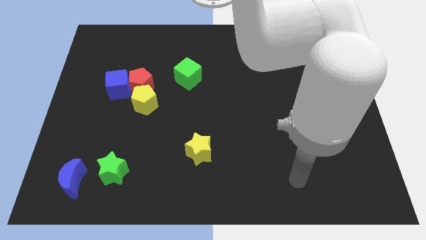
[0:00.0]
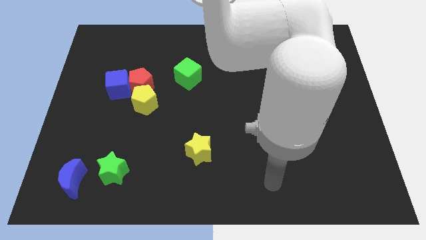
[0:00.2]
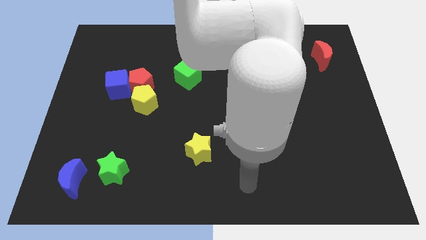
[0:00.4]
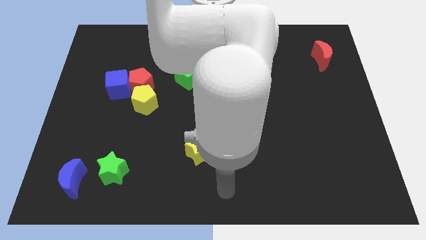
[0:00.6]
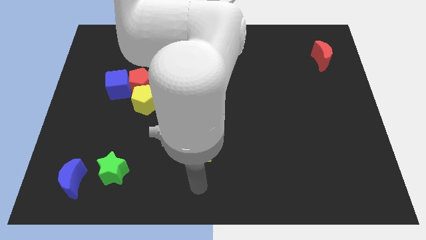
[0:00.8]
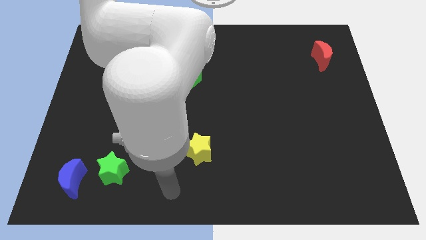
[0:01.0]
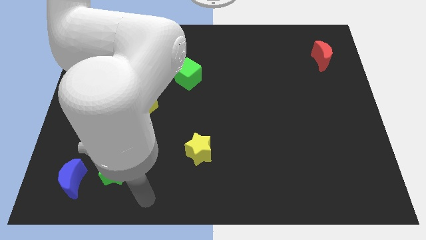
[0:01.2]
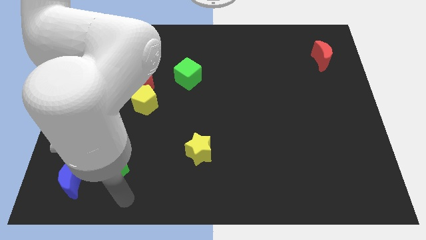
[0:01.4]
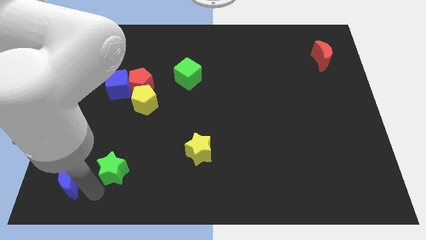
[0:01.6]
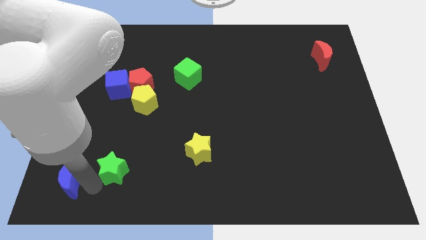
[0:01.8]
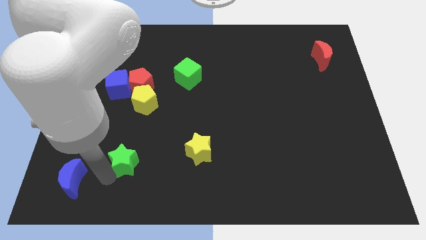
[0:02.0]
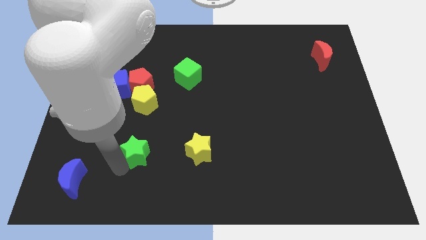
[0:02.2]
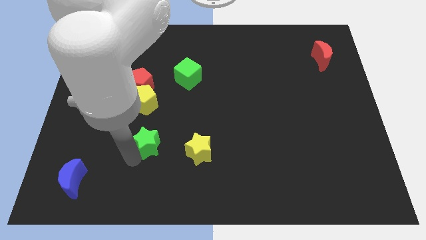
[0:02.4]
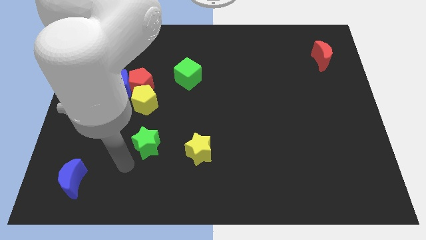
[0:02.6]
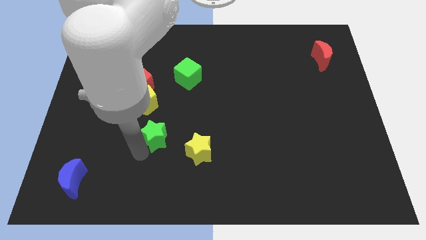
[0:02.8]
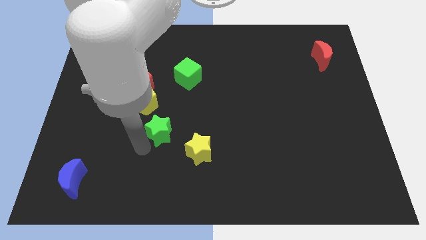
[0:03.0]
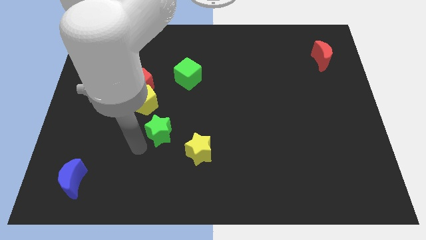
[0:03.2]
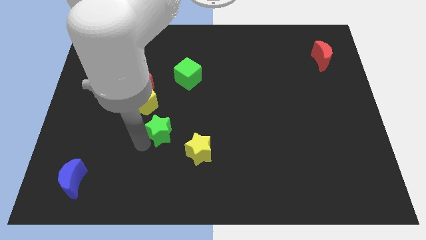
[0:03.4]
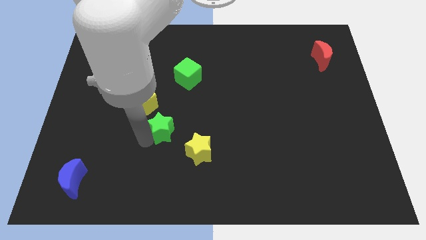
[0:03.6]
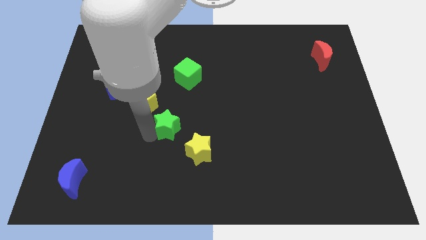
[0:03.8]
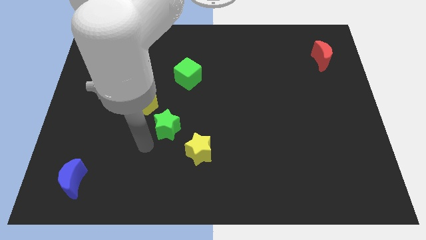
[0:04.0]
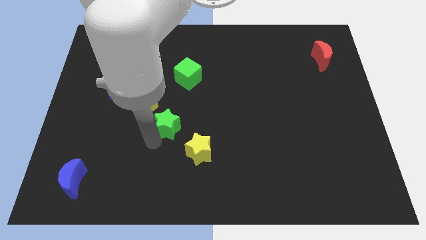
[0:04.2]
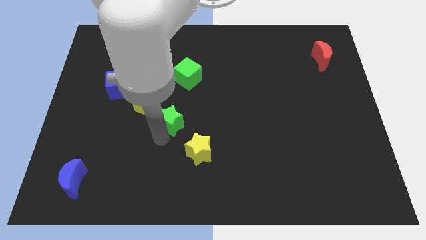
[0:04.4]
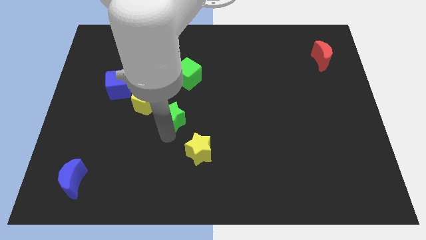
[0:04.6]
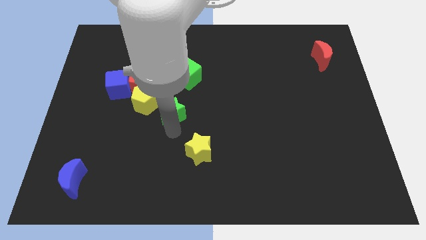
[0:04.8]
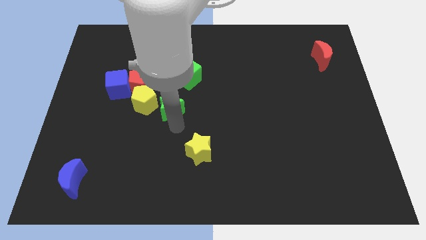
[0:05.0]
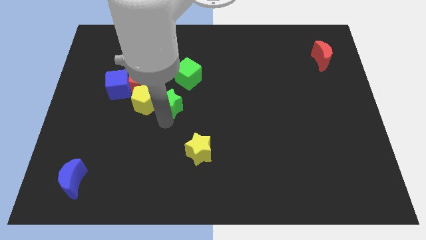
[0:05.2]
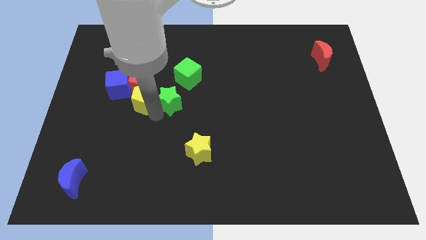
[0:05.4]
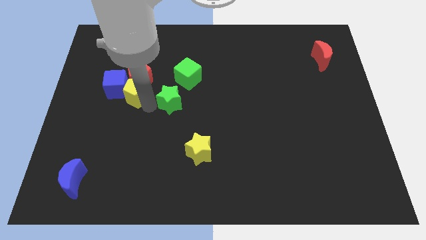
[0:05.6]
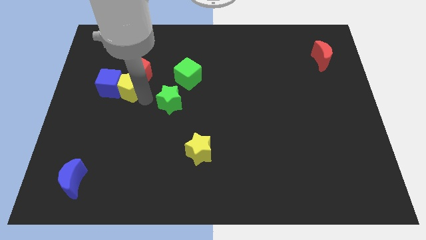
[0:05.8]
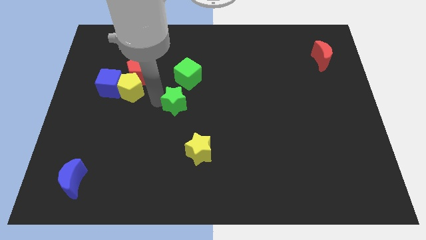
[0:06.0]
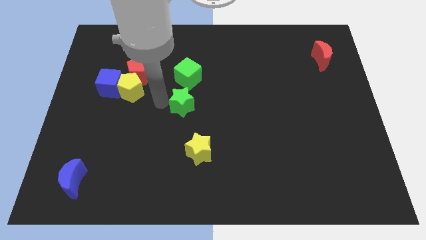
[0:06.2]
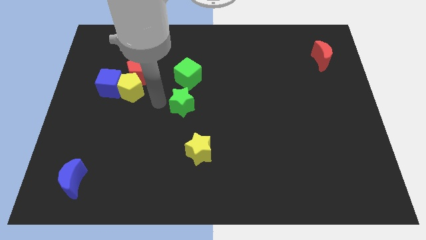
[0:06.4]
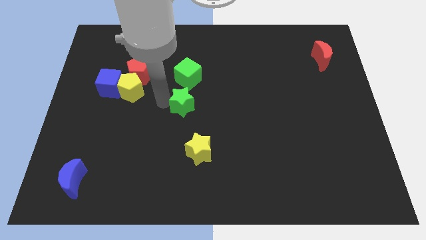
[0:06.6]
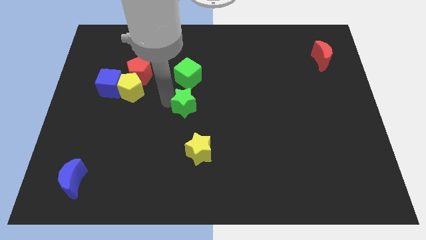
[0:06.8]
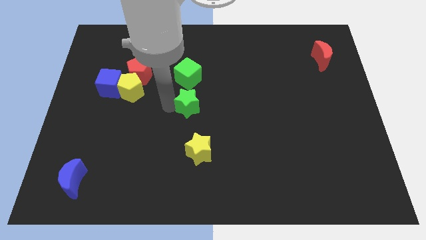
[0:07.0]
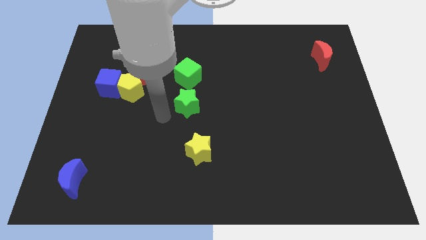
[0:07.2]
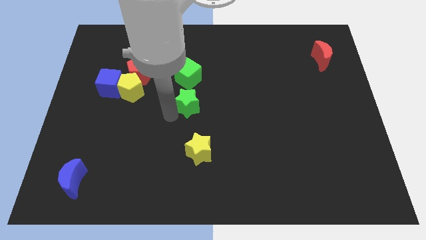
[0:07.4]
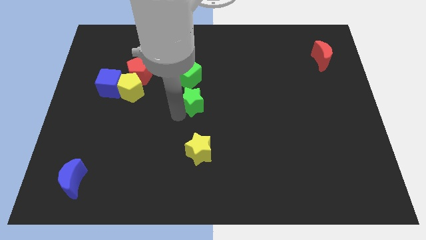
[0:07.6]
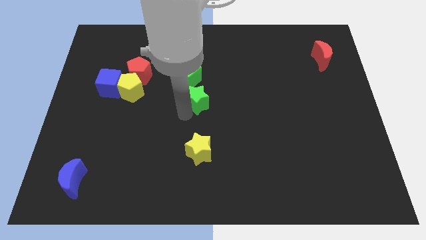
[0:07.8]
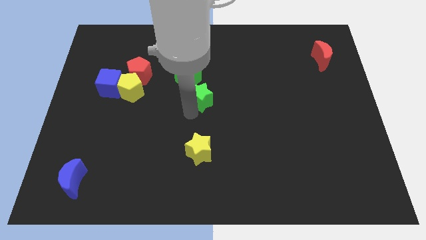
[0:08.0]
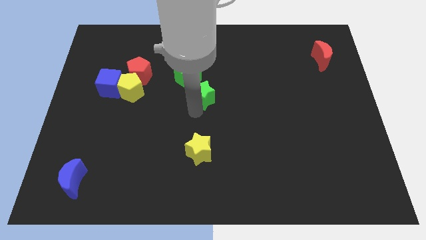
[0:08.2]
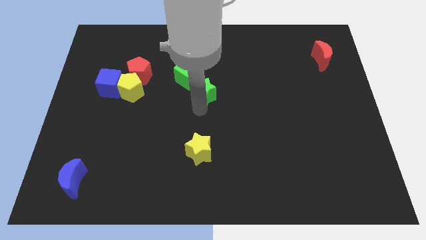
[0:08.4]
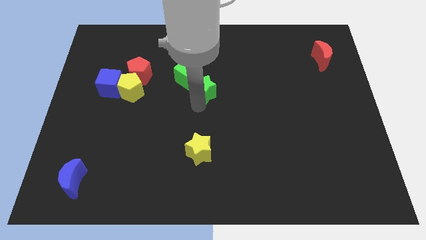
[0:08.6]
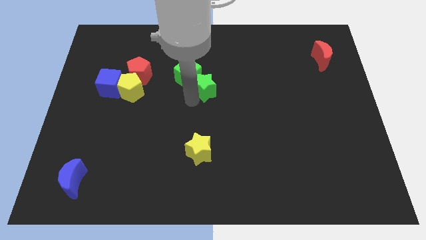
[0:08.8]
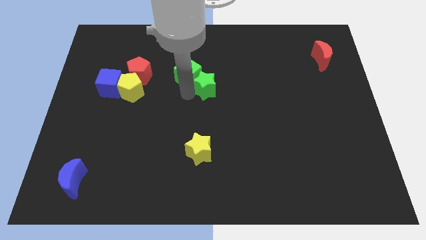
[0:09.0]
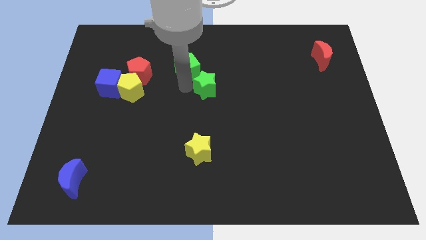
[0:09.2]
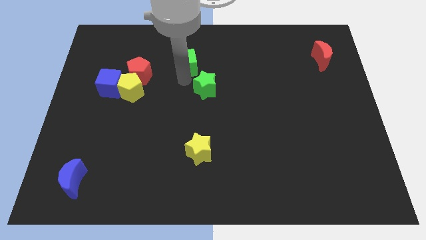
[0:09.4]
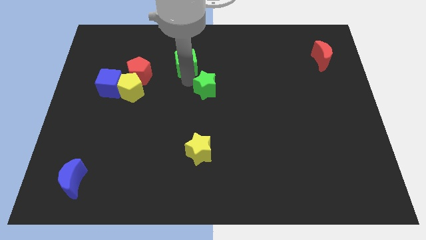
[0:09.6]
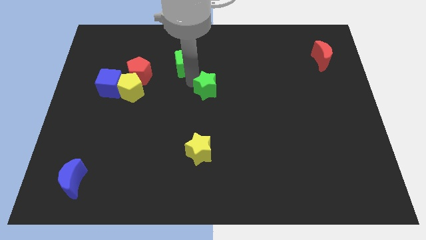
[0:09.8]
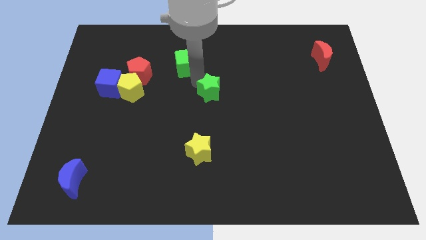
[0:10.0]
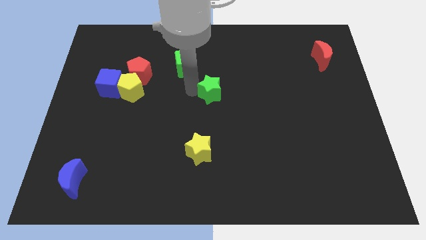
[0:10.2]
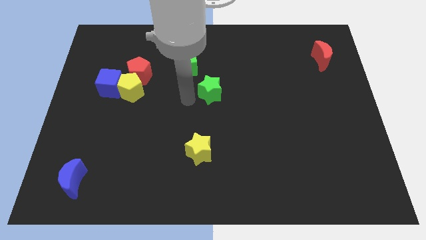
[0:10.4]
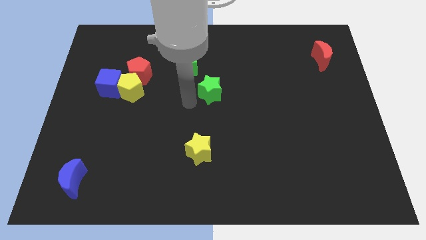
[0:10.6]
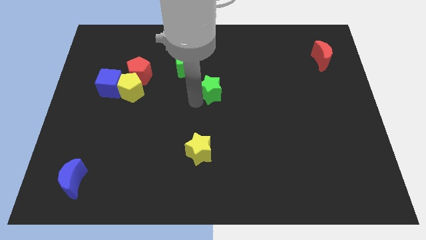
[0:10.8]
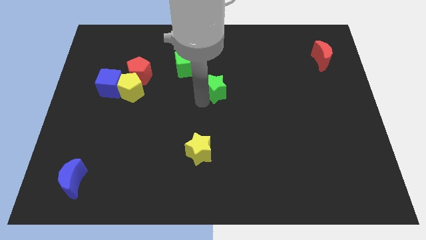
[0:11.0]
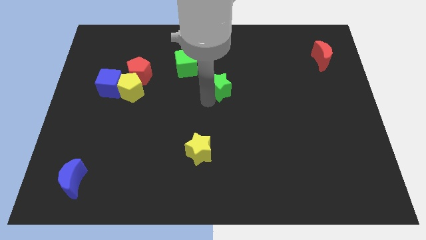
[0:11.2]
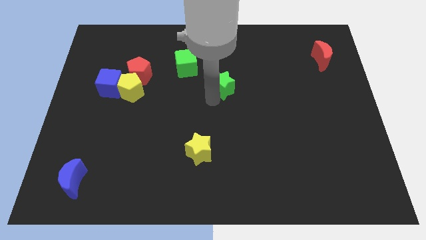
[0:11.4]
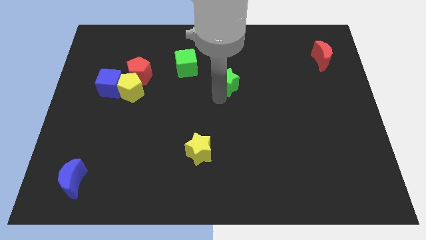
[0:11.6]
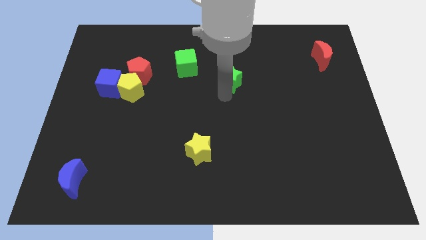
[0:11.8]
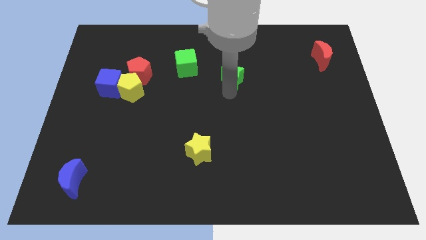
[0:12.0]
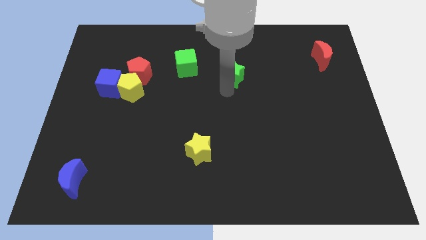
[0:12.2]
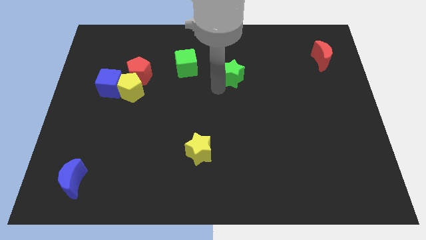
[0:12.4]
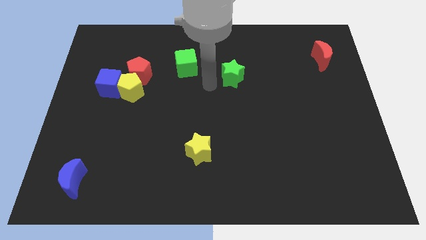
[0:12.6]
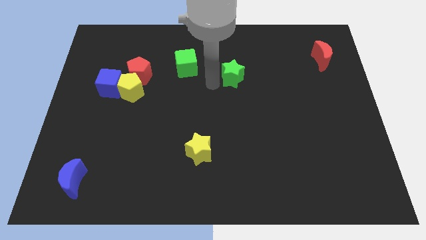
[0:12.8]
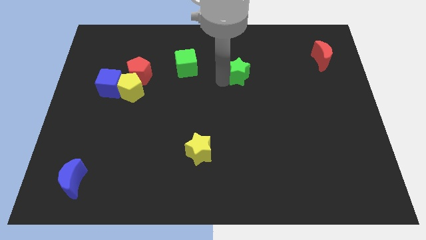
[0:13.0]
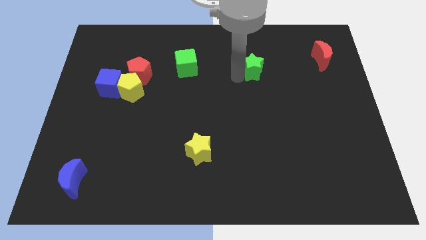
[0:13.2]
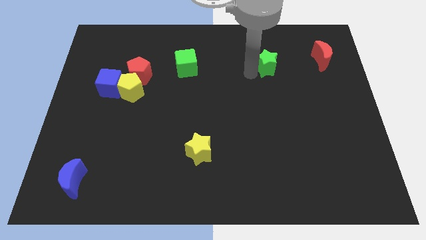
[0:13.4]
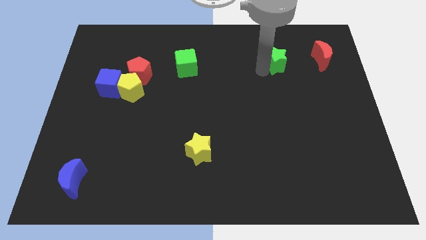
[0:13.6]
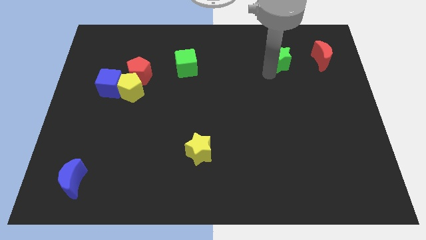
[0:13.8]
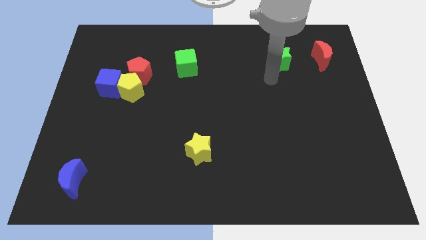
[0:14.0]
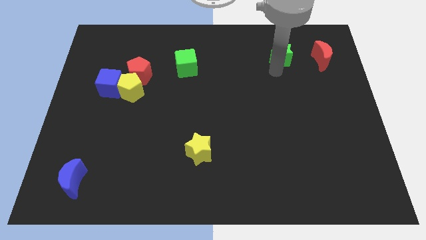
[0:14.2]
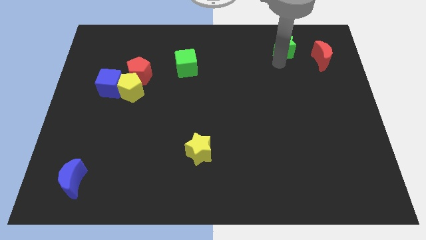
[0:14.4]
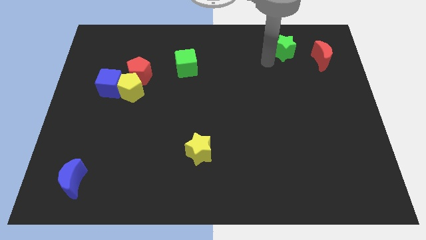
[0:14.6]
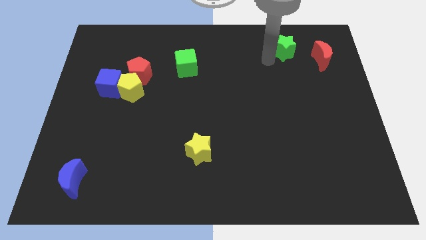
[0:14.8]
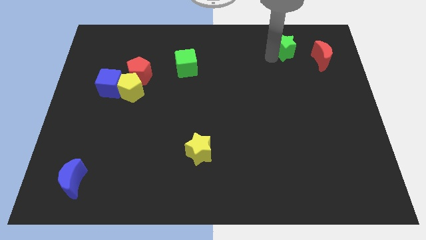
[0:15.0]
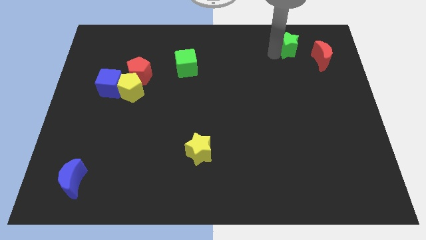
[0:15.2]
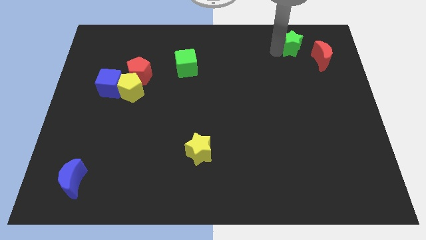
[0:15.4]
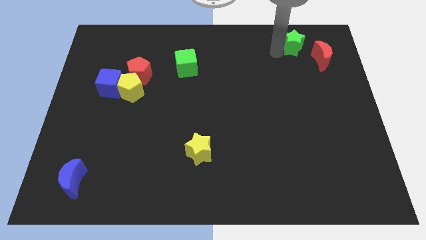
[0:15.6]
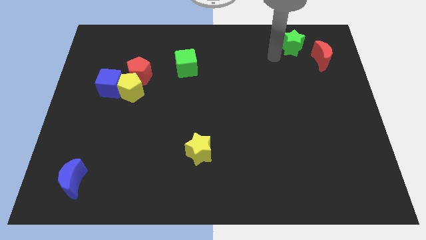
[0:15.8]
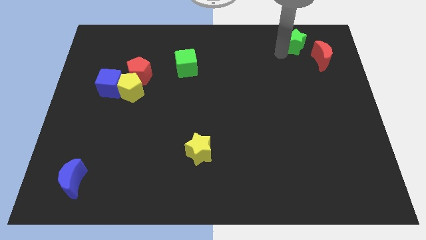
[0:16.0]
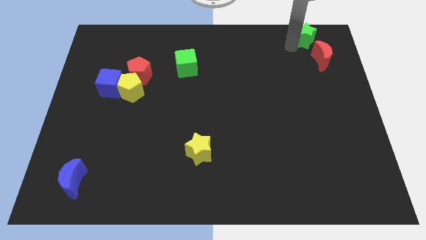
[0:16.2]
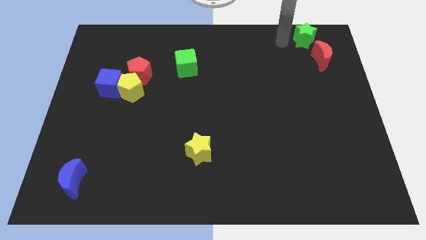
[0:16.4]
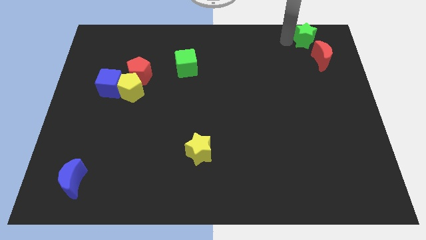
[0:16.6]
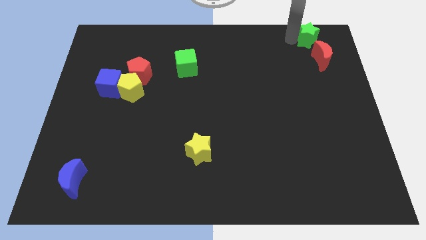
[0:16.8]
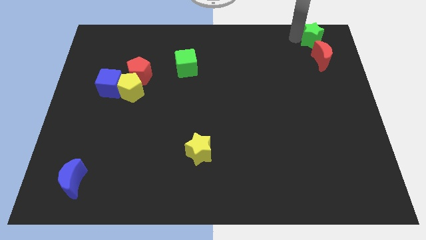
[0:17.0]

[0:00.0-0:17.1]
move the green star to the top right of the board
